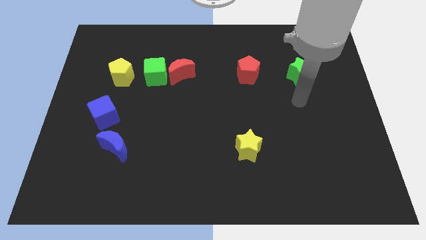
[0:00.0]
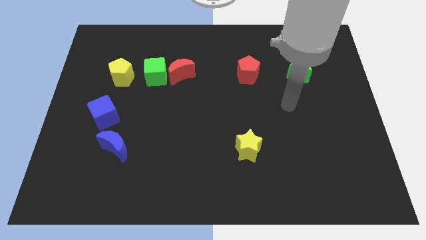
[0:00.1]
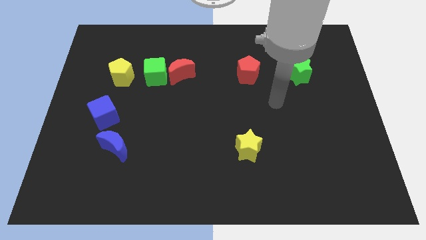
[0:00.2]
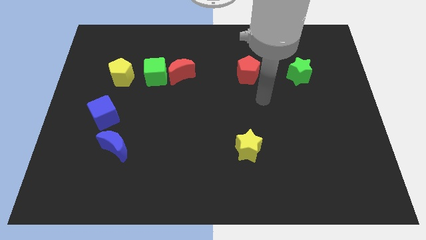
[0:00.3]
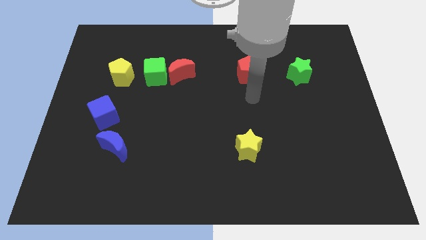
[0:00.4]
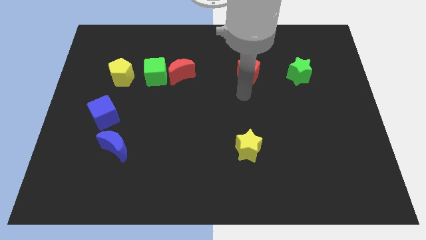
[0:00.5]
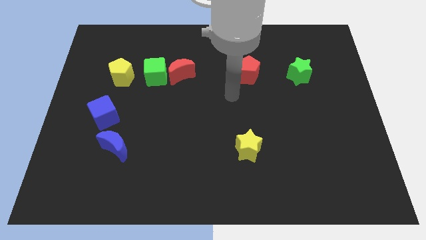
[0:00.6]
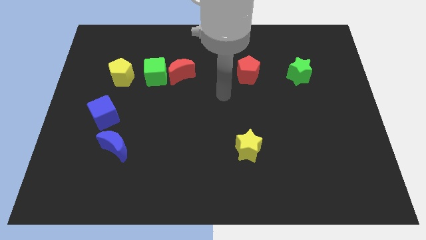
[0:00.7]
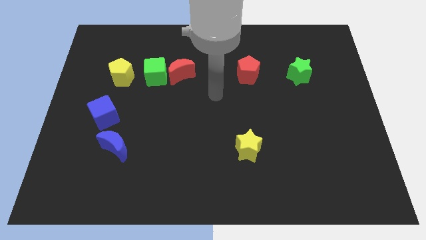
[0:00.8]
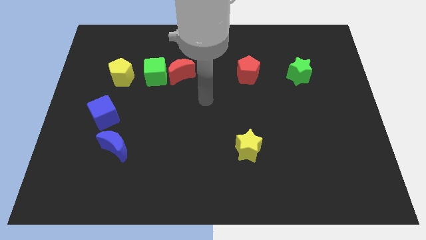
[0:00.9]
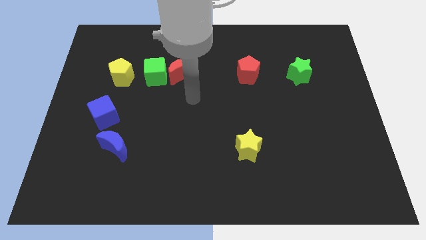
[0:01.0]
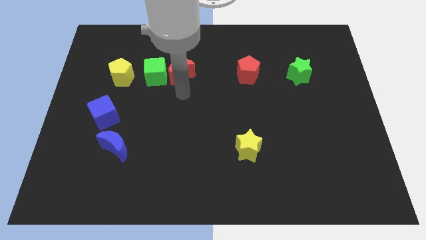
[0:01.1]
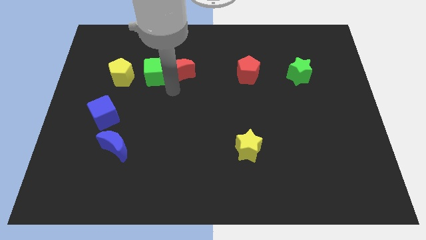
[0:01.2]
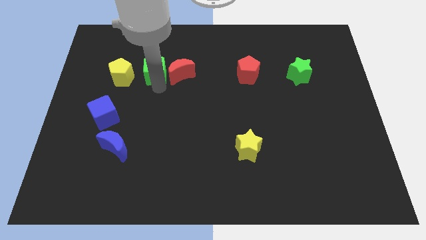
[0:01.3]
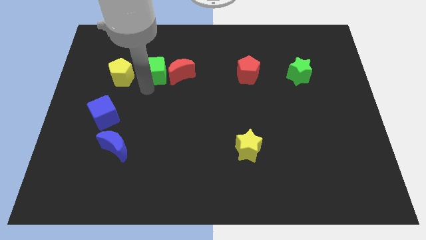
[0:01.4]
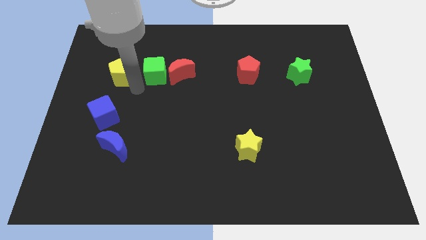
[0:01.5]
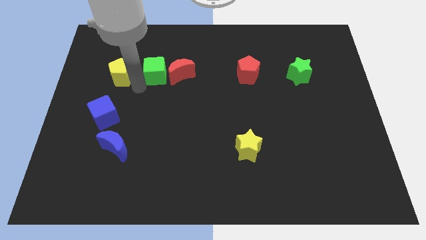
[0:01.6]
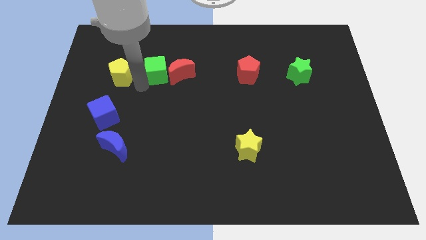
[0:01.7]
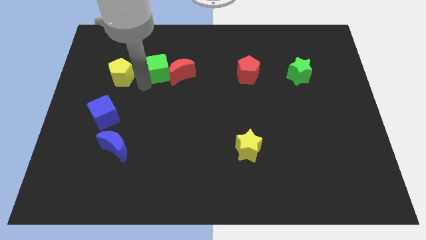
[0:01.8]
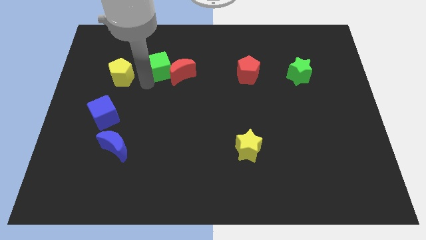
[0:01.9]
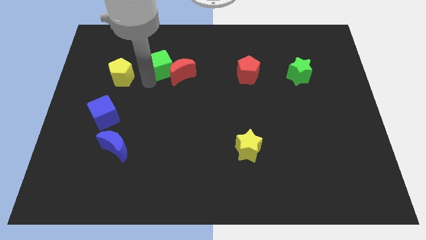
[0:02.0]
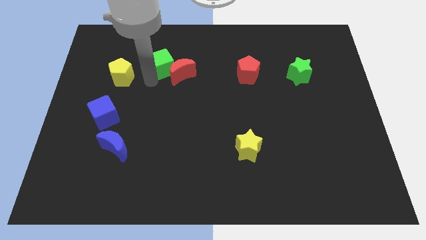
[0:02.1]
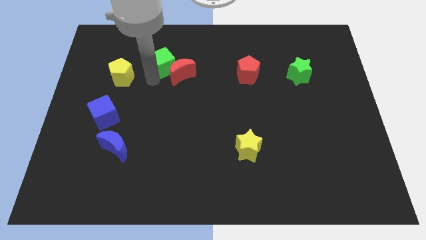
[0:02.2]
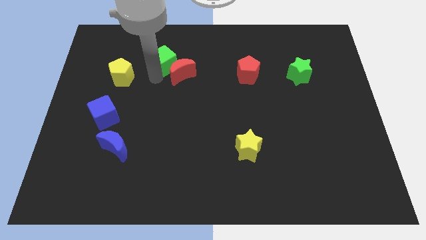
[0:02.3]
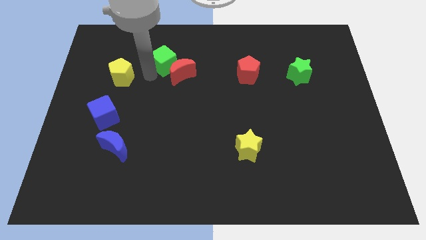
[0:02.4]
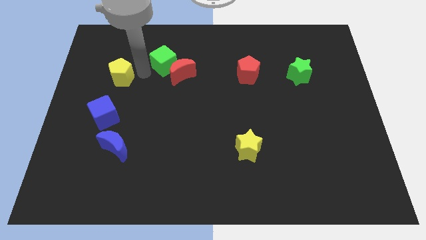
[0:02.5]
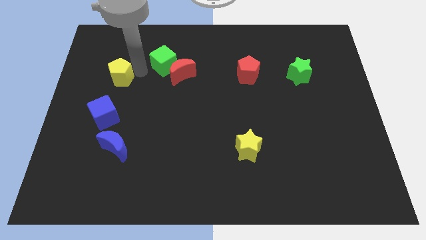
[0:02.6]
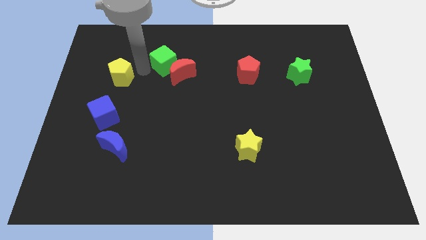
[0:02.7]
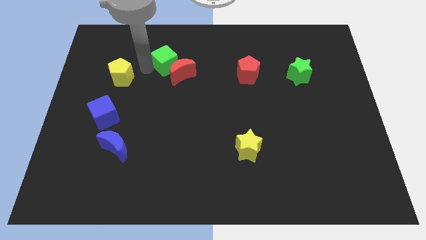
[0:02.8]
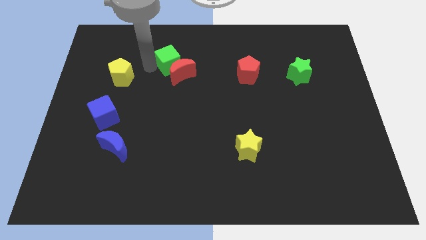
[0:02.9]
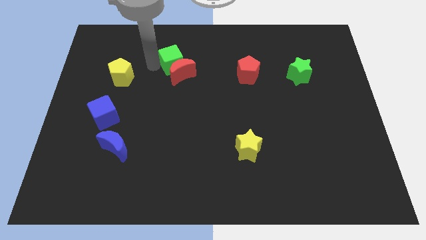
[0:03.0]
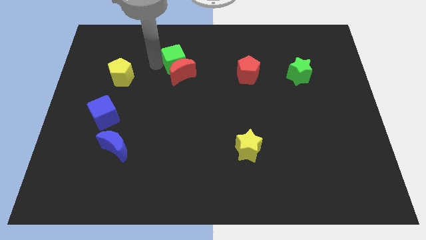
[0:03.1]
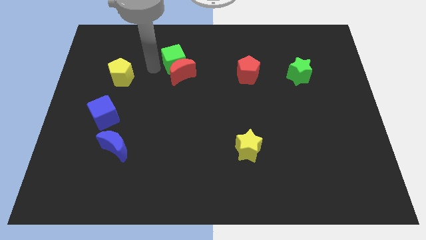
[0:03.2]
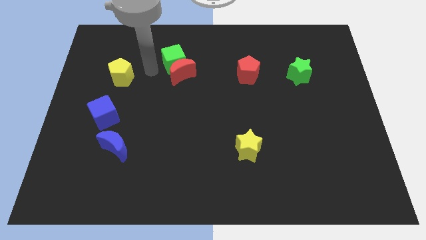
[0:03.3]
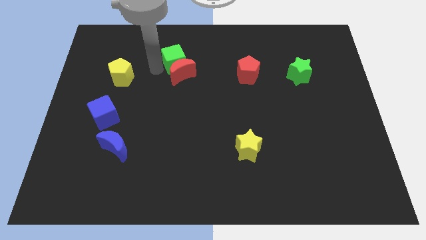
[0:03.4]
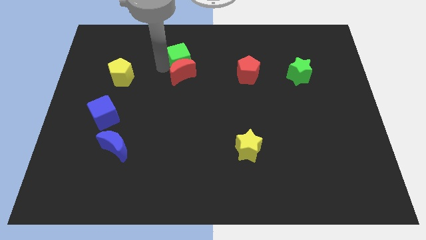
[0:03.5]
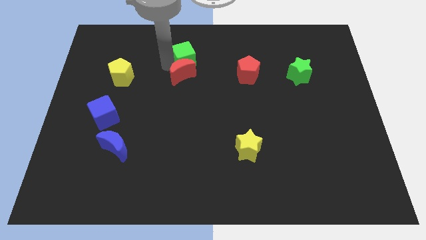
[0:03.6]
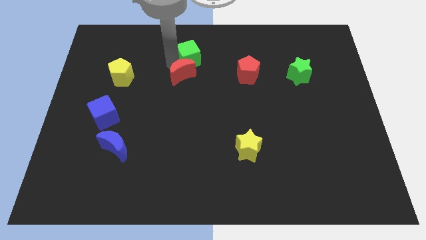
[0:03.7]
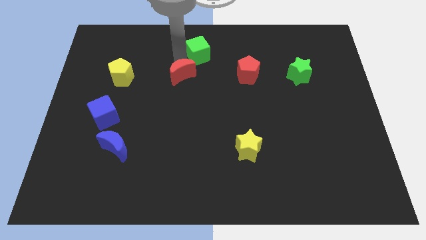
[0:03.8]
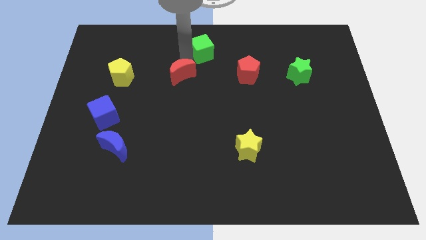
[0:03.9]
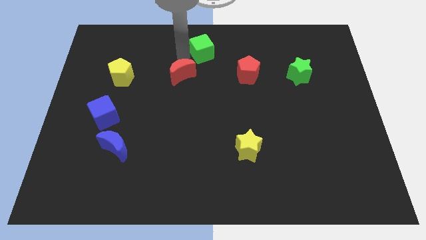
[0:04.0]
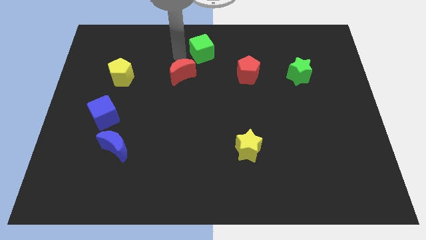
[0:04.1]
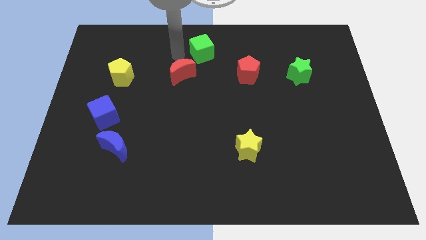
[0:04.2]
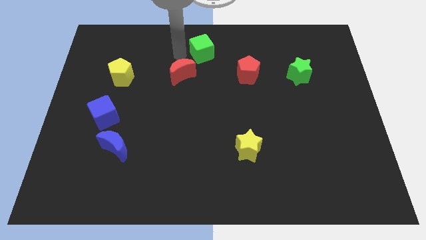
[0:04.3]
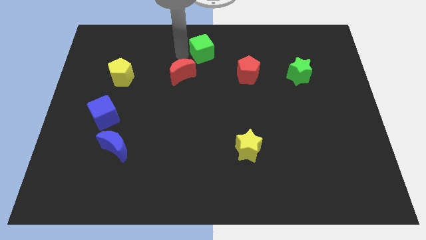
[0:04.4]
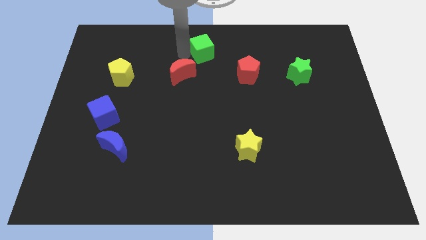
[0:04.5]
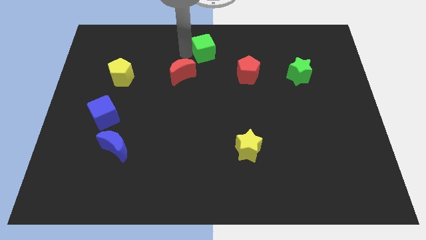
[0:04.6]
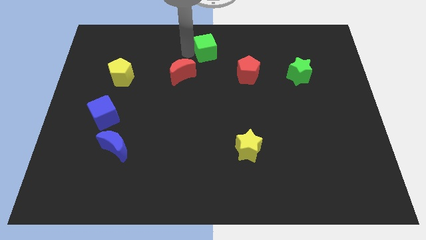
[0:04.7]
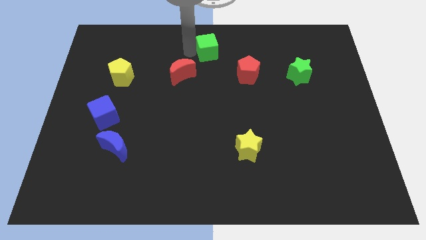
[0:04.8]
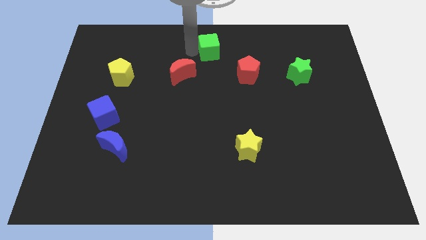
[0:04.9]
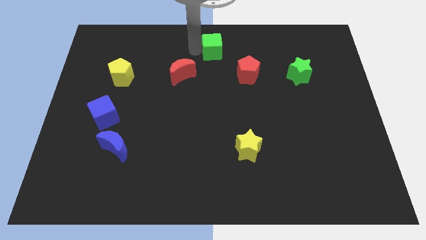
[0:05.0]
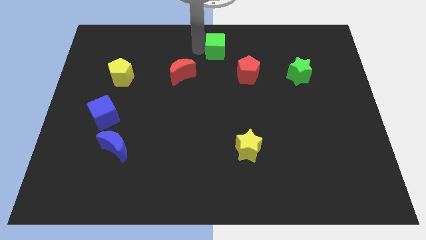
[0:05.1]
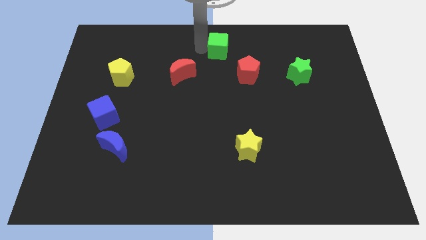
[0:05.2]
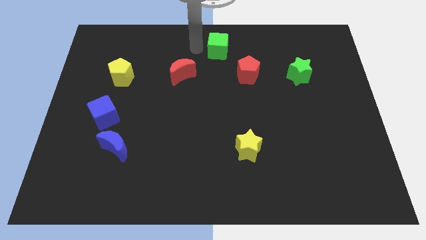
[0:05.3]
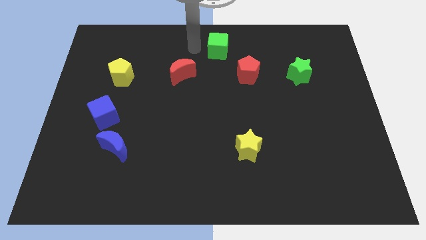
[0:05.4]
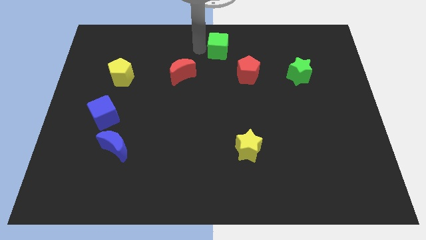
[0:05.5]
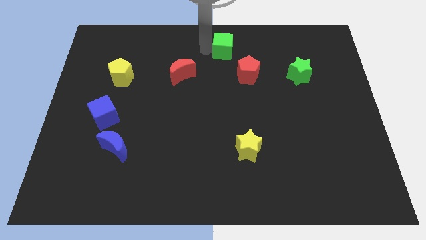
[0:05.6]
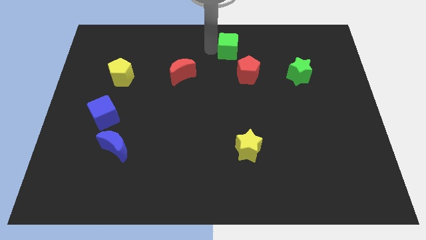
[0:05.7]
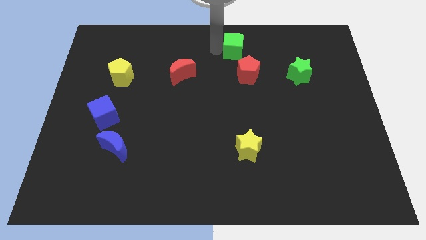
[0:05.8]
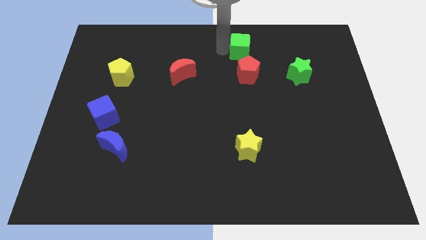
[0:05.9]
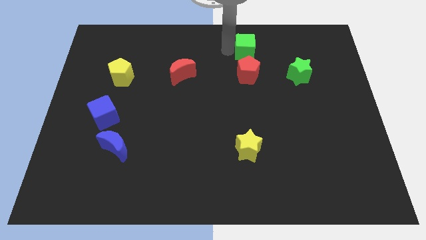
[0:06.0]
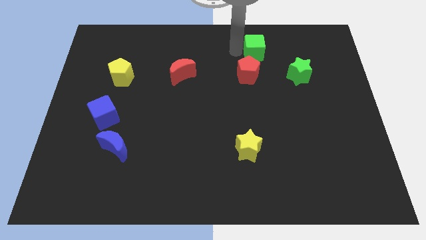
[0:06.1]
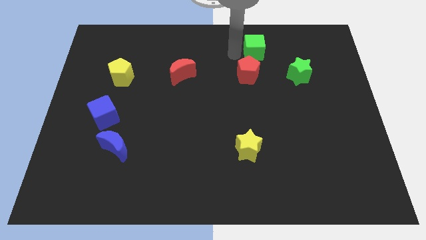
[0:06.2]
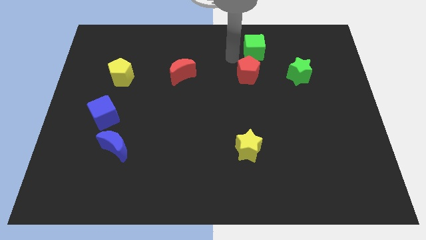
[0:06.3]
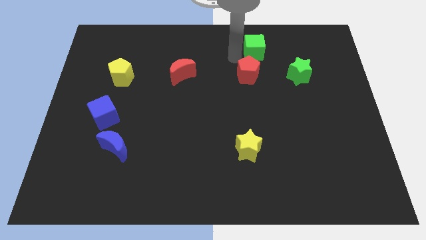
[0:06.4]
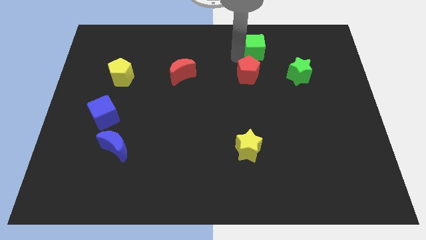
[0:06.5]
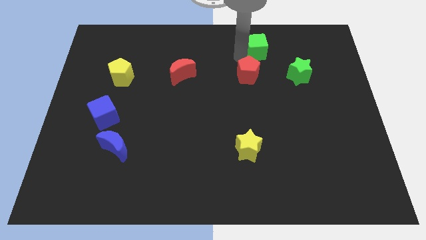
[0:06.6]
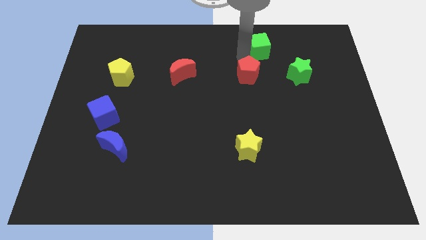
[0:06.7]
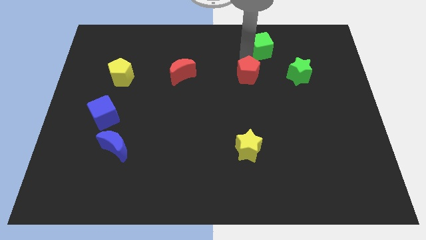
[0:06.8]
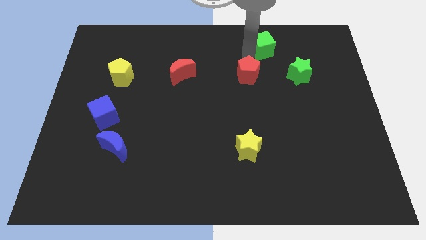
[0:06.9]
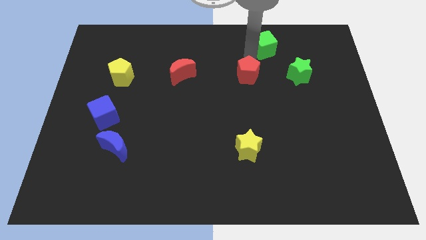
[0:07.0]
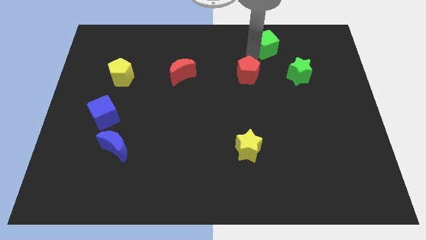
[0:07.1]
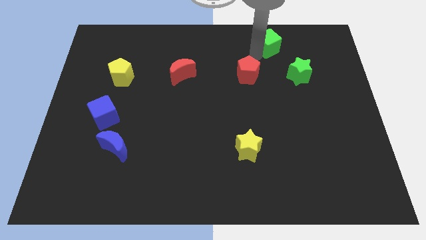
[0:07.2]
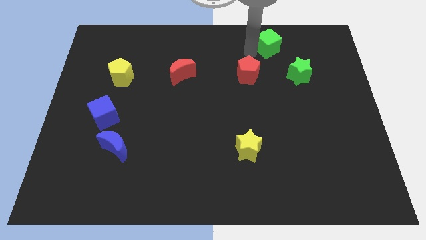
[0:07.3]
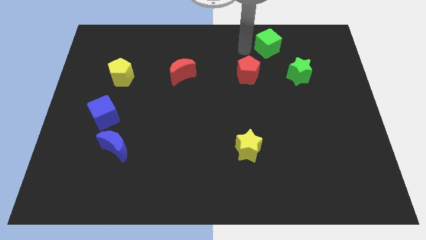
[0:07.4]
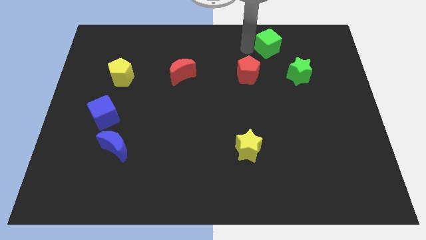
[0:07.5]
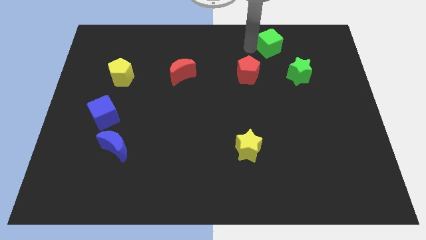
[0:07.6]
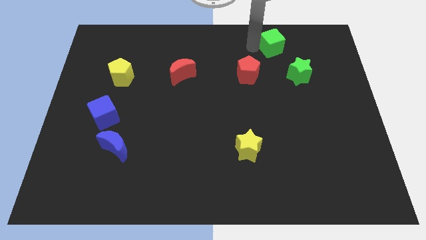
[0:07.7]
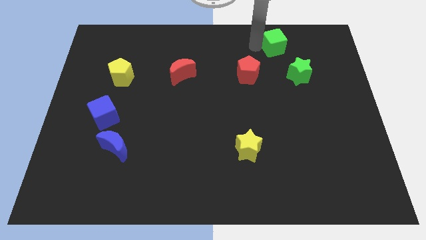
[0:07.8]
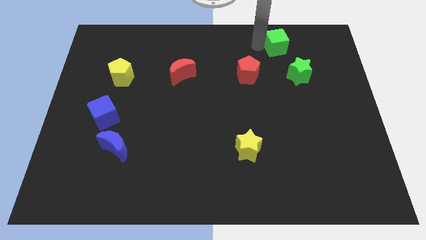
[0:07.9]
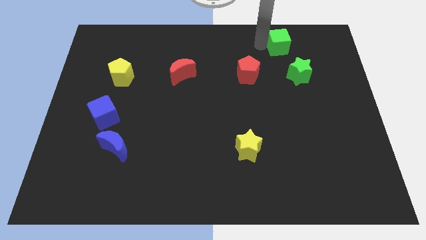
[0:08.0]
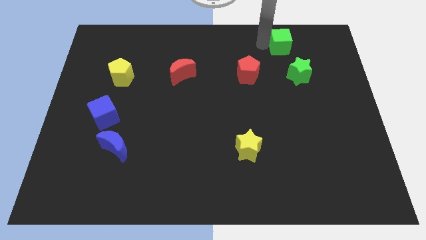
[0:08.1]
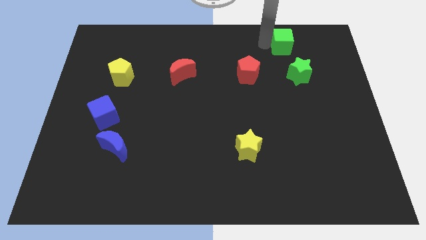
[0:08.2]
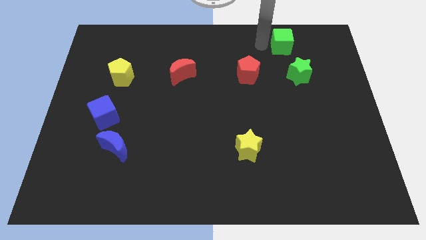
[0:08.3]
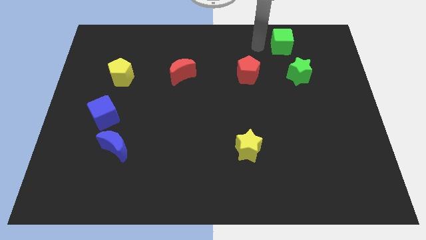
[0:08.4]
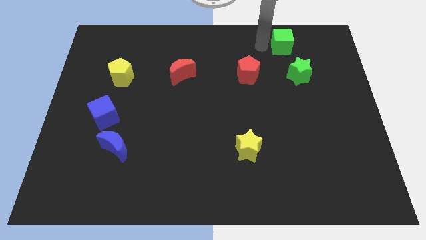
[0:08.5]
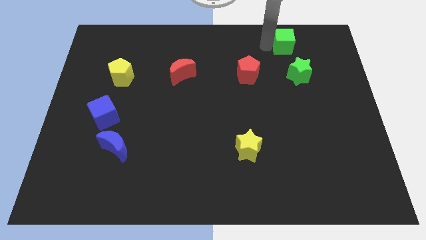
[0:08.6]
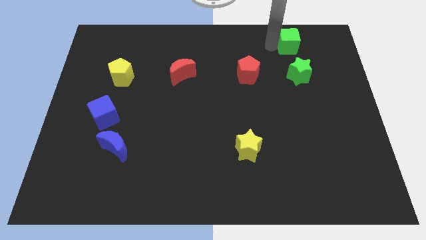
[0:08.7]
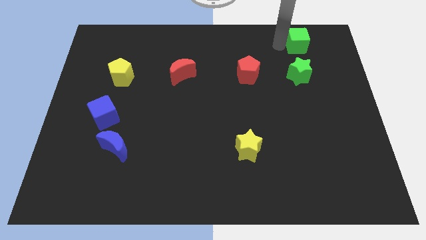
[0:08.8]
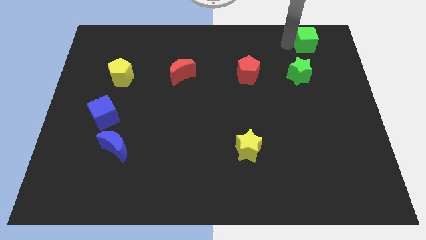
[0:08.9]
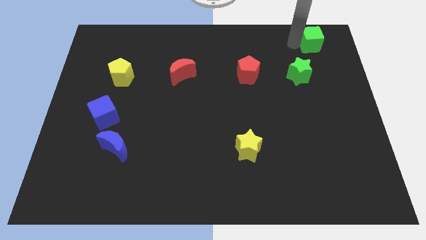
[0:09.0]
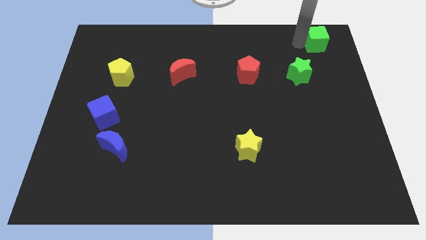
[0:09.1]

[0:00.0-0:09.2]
slide the green cube to the top right corner
